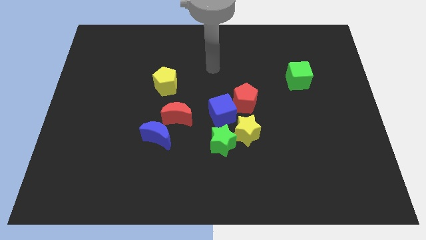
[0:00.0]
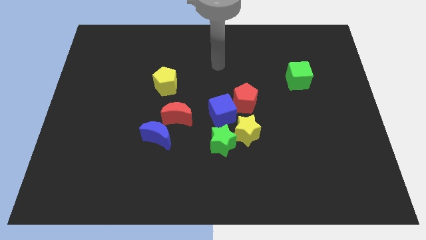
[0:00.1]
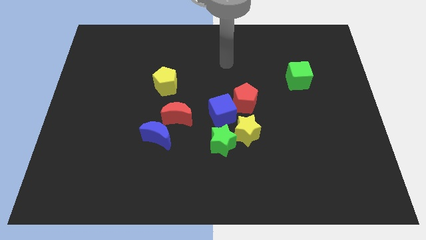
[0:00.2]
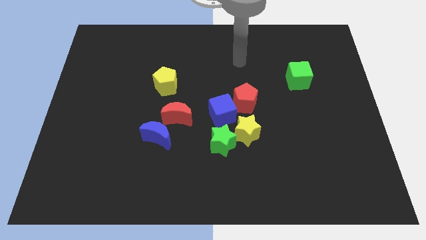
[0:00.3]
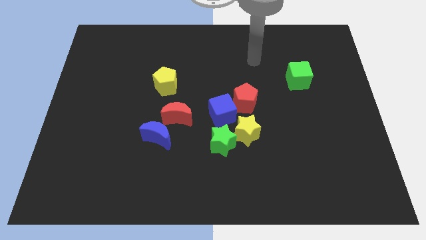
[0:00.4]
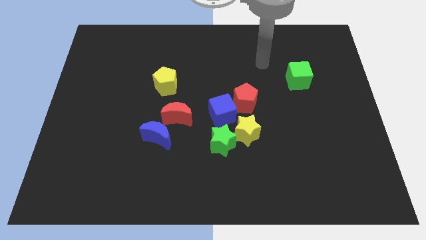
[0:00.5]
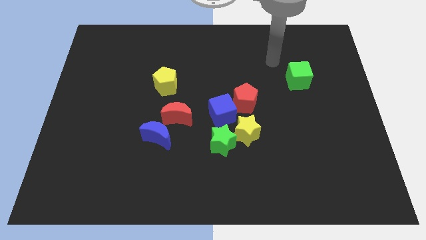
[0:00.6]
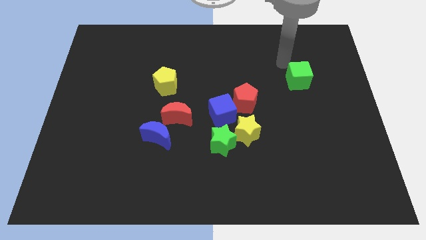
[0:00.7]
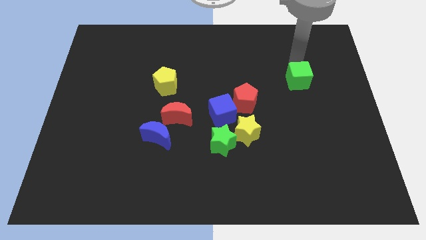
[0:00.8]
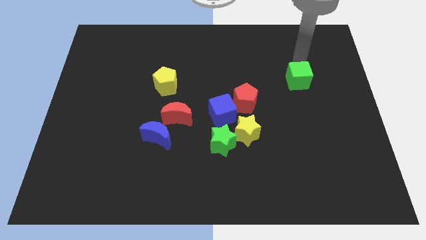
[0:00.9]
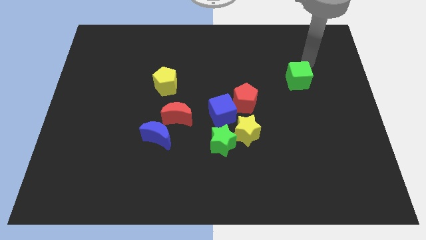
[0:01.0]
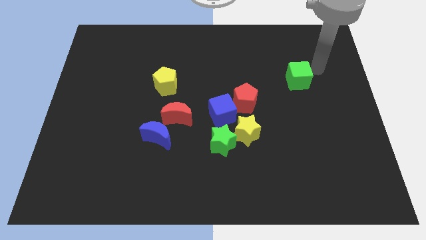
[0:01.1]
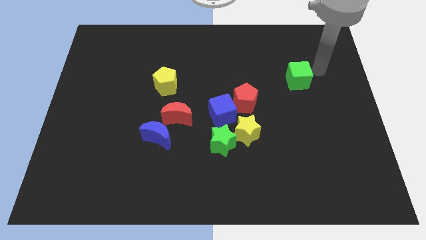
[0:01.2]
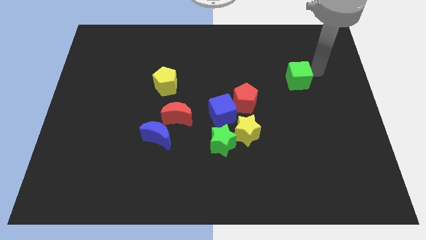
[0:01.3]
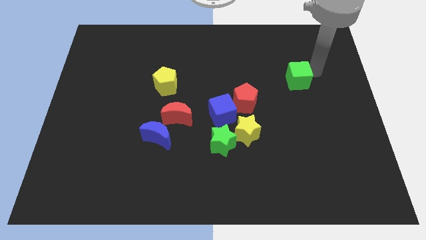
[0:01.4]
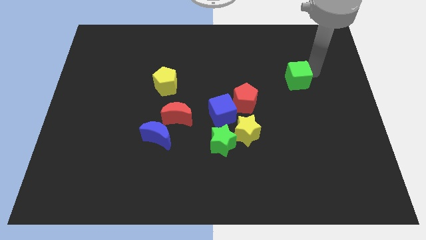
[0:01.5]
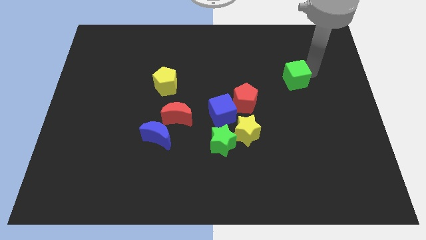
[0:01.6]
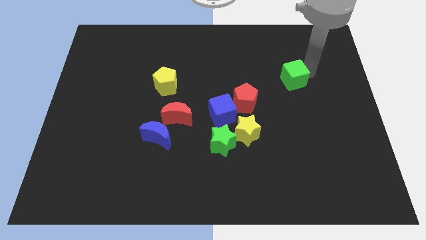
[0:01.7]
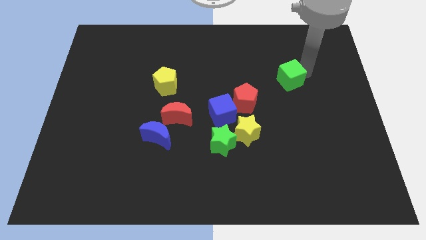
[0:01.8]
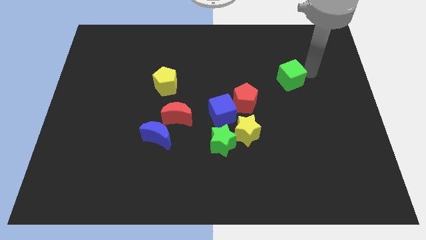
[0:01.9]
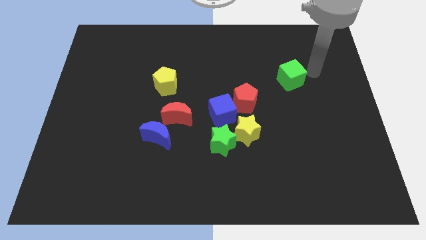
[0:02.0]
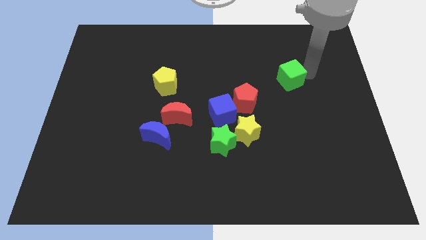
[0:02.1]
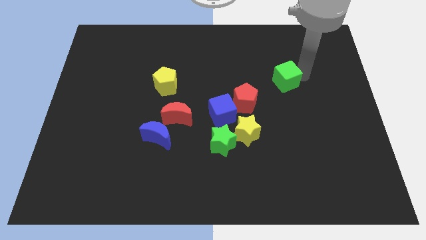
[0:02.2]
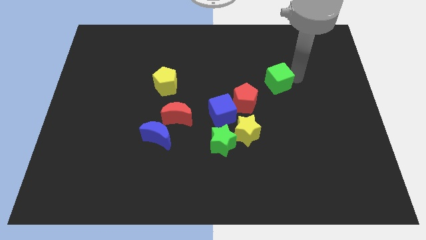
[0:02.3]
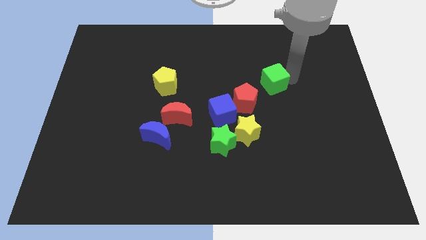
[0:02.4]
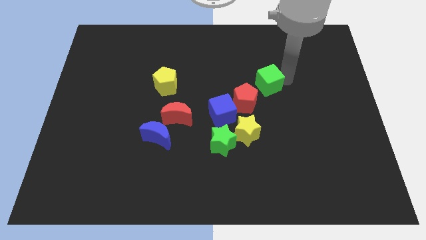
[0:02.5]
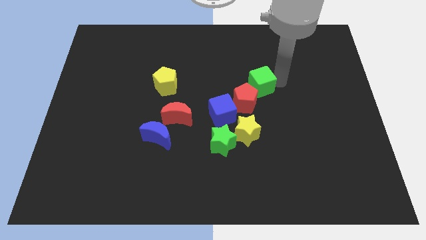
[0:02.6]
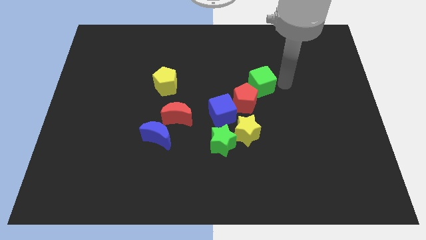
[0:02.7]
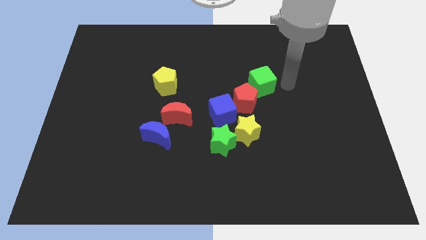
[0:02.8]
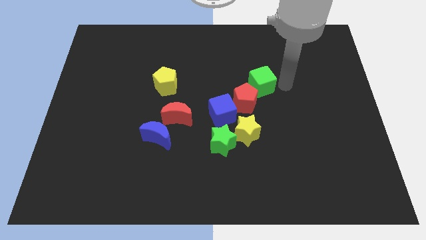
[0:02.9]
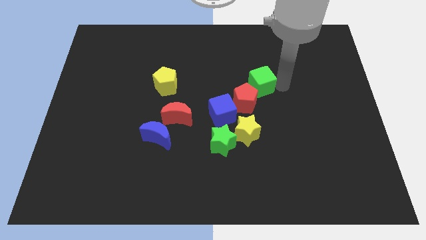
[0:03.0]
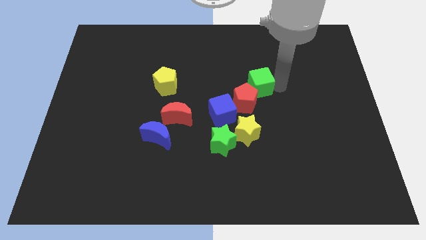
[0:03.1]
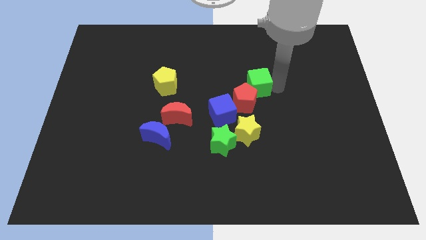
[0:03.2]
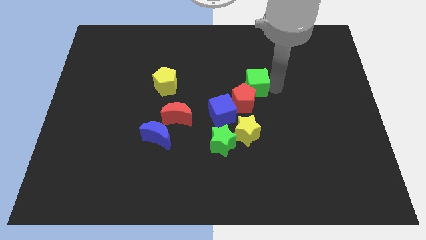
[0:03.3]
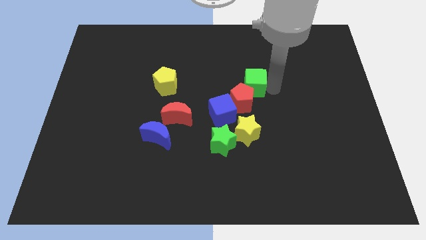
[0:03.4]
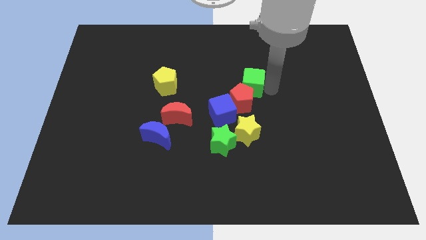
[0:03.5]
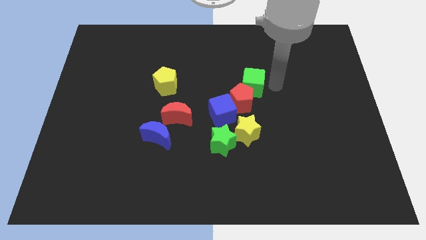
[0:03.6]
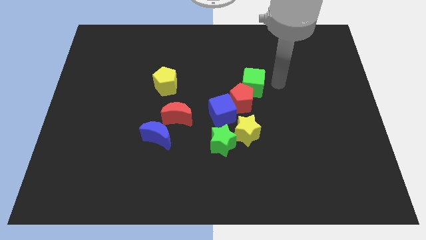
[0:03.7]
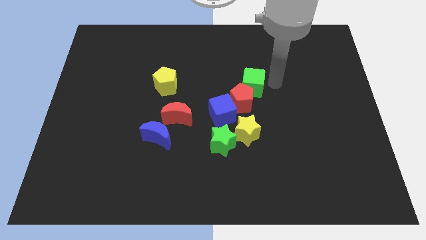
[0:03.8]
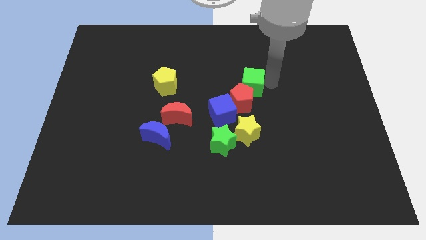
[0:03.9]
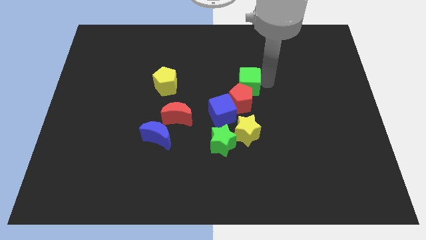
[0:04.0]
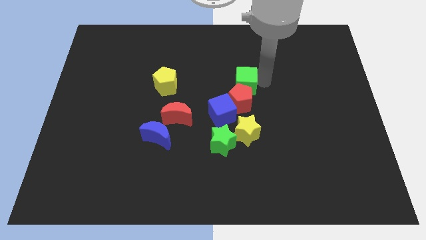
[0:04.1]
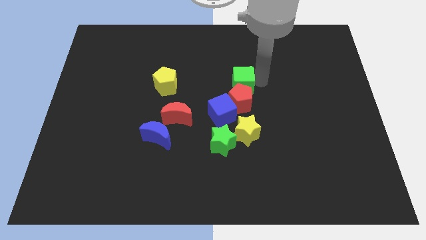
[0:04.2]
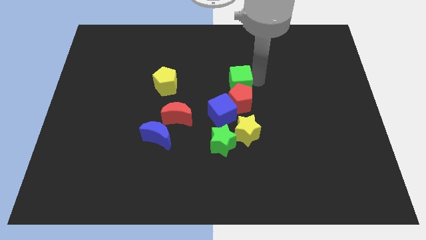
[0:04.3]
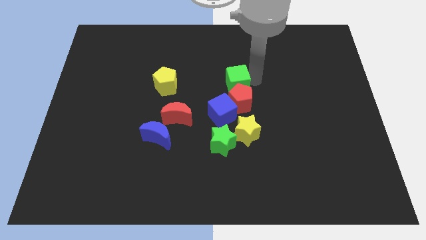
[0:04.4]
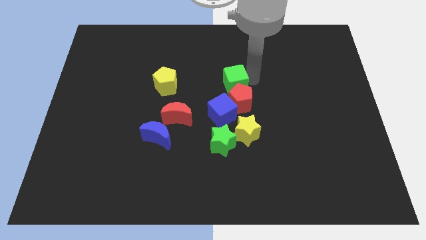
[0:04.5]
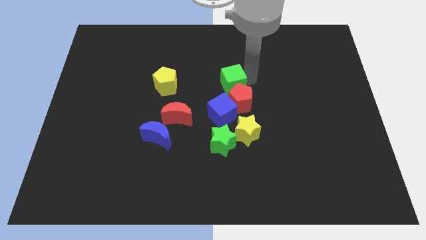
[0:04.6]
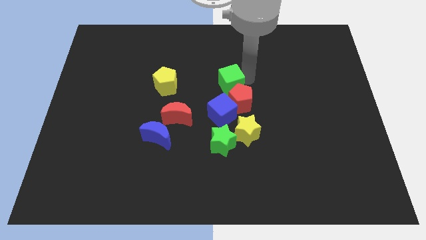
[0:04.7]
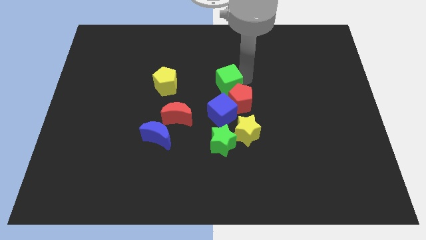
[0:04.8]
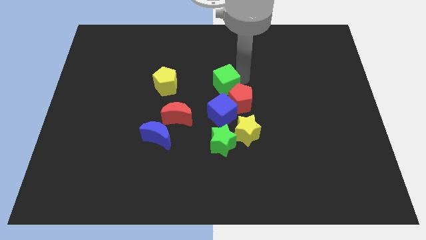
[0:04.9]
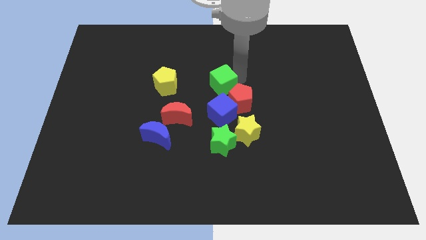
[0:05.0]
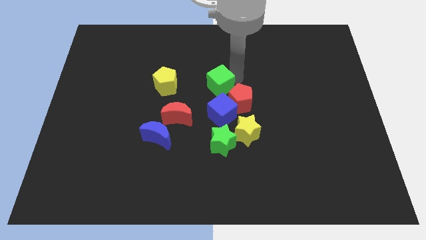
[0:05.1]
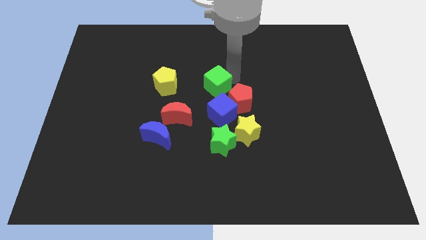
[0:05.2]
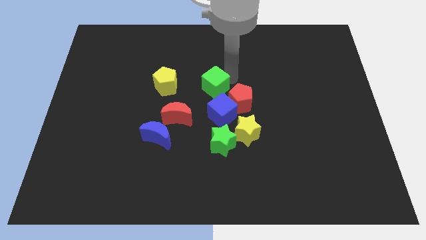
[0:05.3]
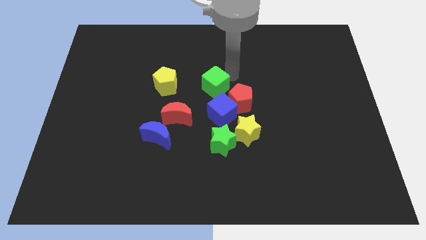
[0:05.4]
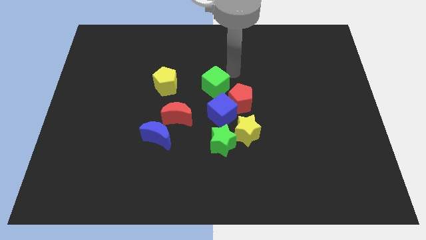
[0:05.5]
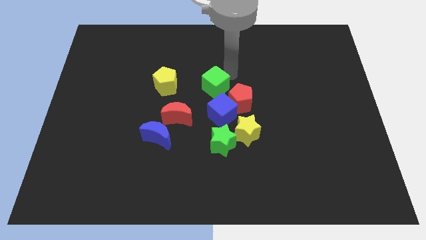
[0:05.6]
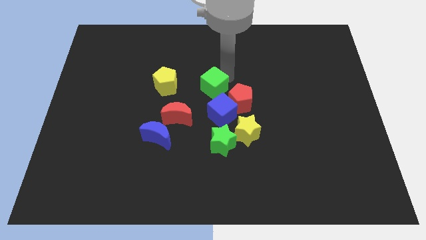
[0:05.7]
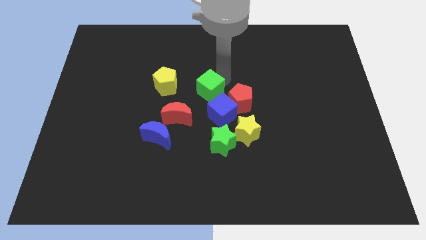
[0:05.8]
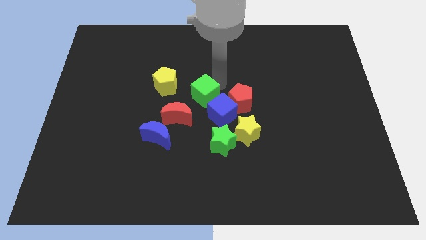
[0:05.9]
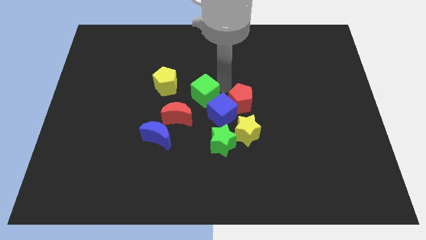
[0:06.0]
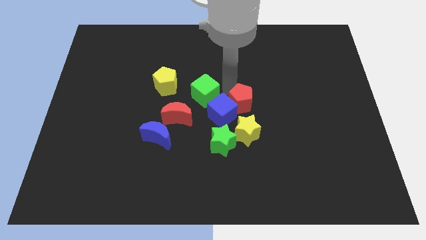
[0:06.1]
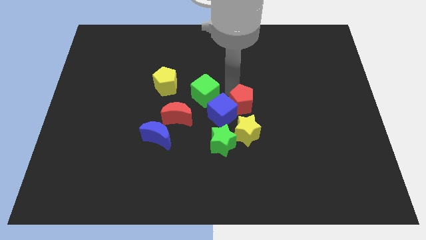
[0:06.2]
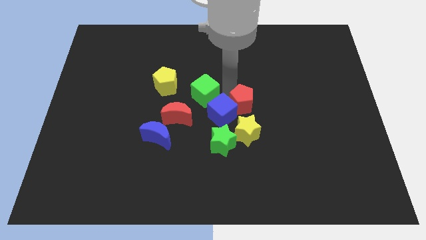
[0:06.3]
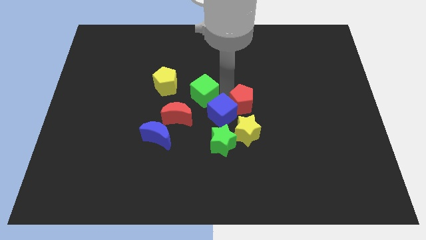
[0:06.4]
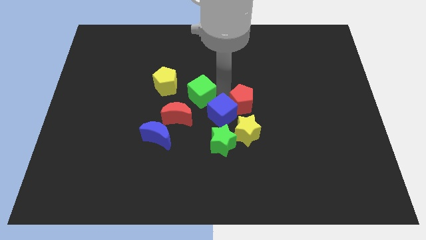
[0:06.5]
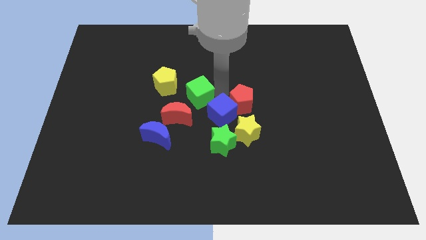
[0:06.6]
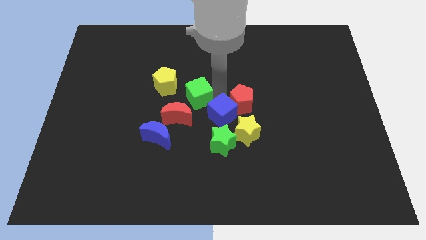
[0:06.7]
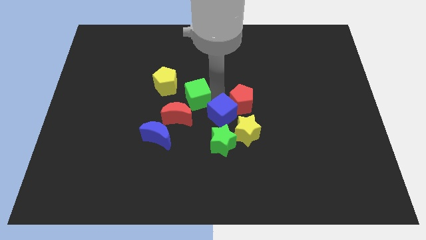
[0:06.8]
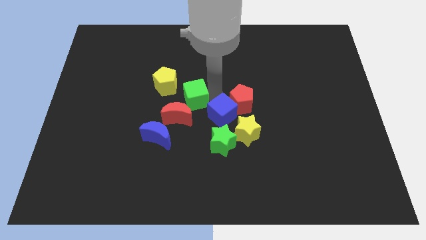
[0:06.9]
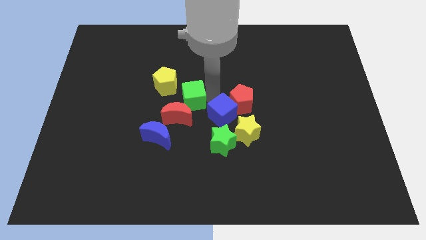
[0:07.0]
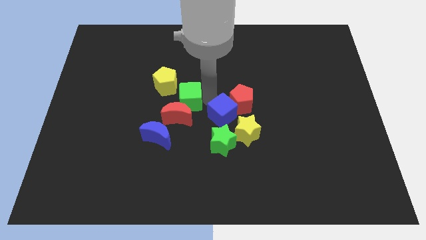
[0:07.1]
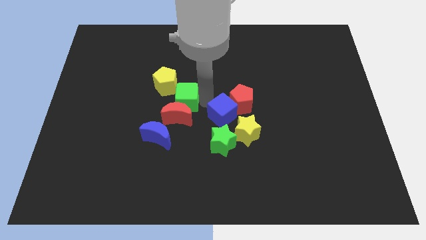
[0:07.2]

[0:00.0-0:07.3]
put the green cube to the top left of the red moon

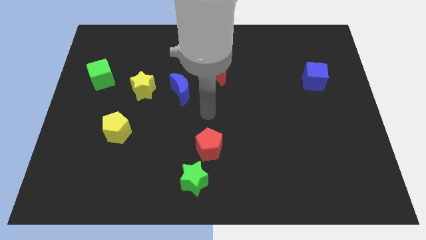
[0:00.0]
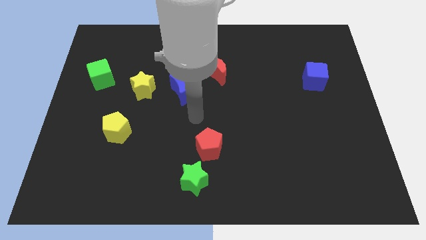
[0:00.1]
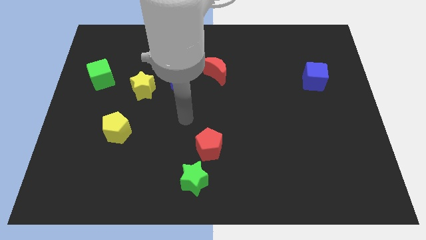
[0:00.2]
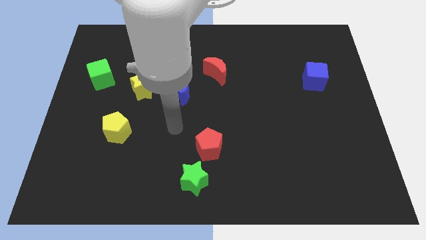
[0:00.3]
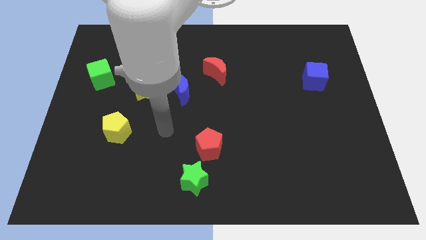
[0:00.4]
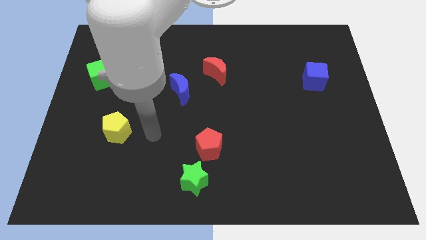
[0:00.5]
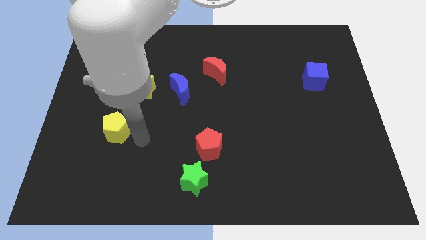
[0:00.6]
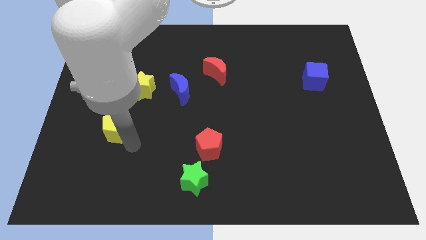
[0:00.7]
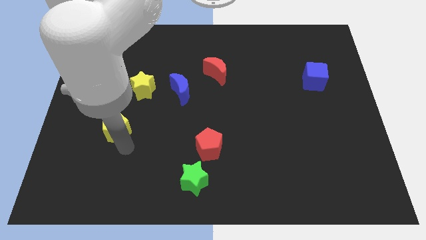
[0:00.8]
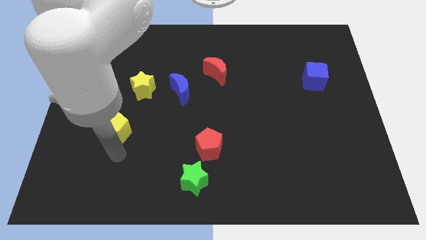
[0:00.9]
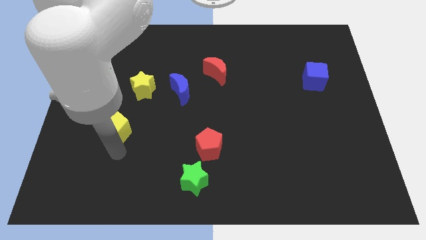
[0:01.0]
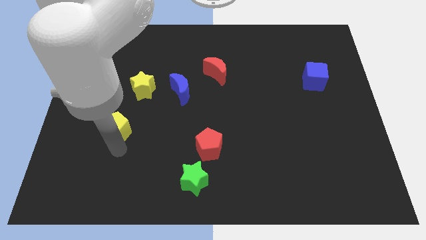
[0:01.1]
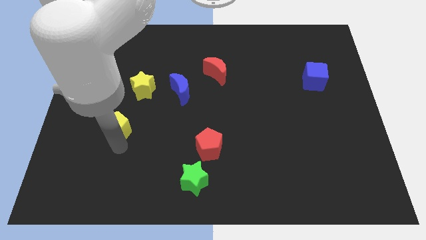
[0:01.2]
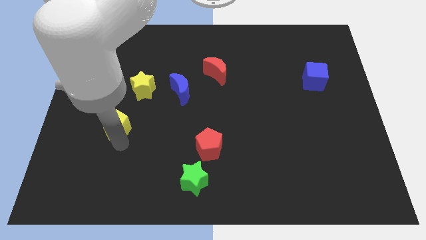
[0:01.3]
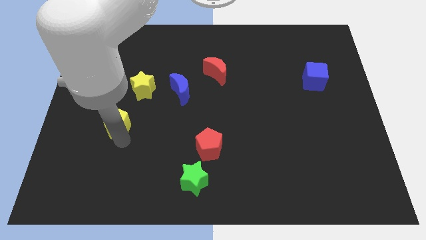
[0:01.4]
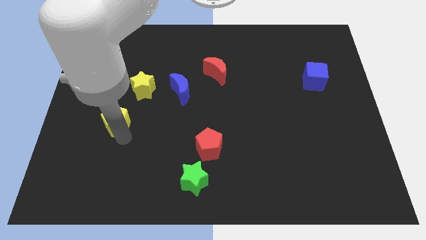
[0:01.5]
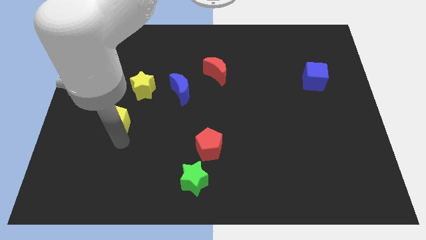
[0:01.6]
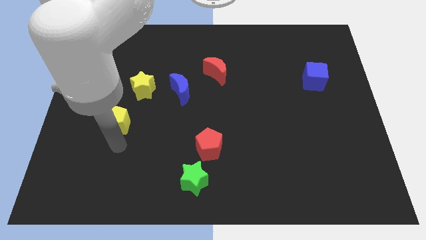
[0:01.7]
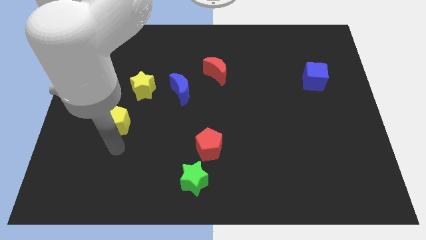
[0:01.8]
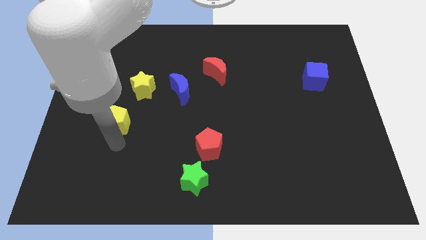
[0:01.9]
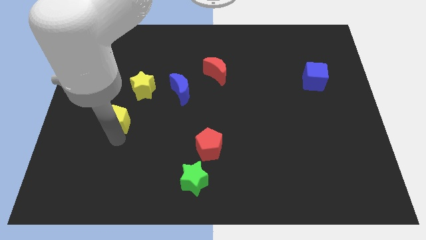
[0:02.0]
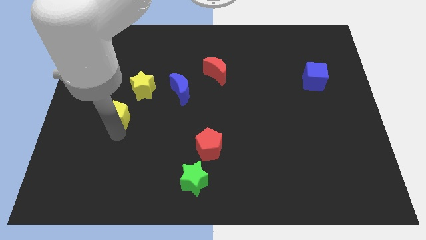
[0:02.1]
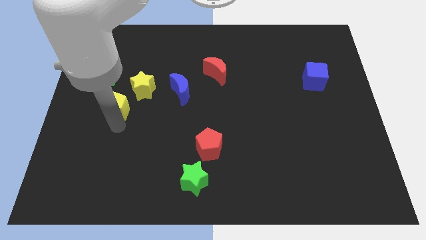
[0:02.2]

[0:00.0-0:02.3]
slide the yellow pentagon diagonally down and to the right of the green cube
